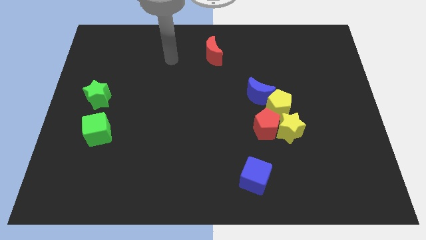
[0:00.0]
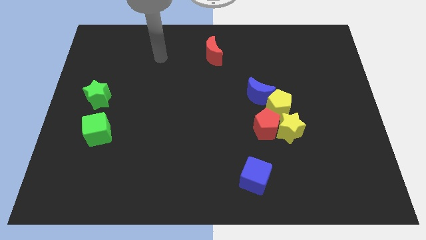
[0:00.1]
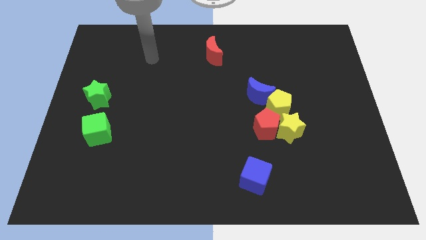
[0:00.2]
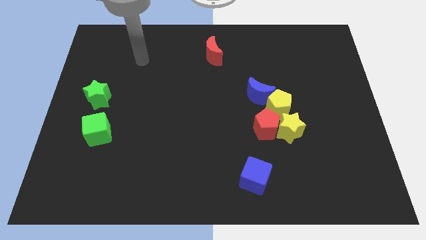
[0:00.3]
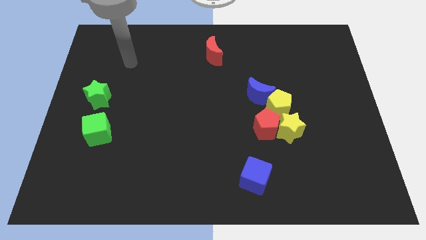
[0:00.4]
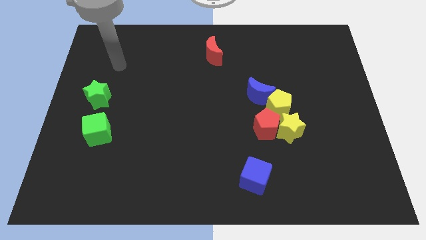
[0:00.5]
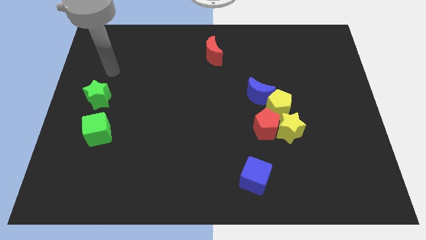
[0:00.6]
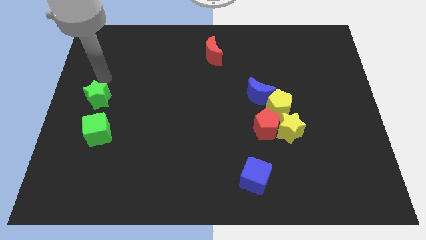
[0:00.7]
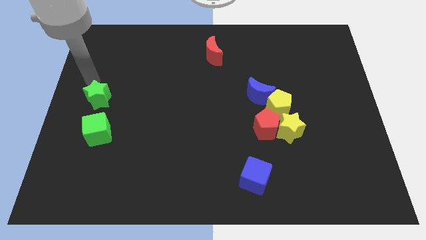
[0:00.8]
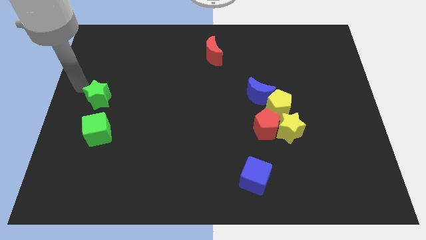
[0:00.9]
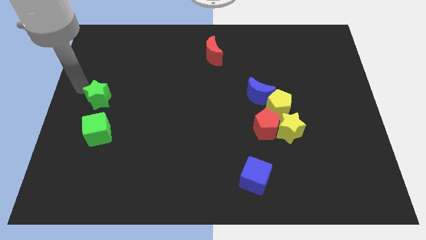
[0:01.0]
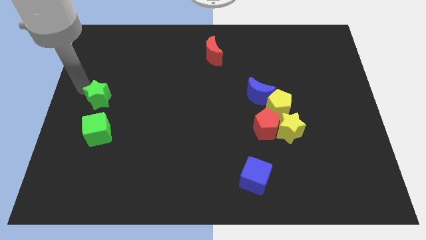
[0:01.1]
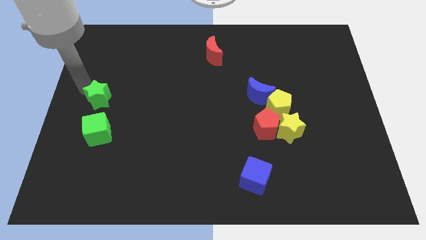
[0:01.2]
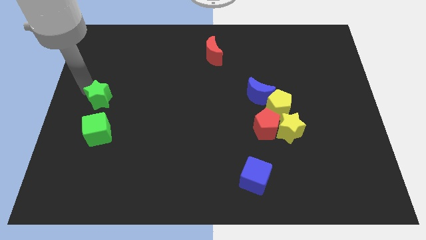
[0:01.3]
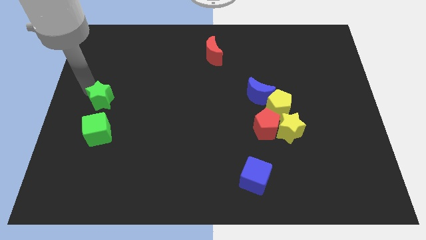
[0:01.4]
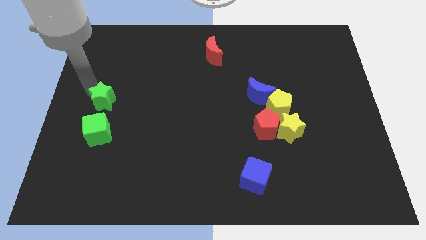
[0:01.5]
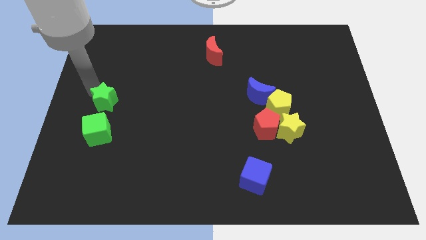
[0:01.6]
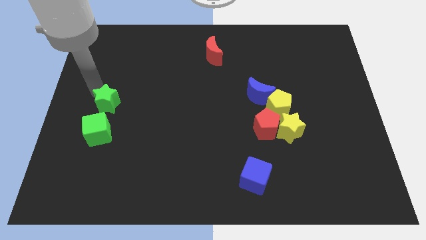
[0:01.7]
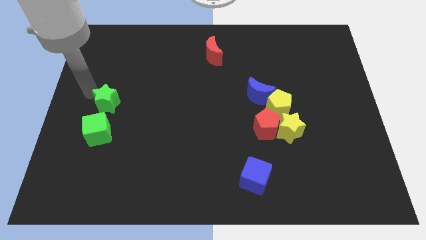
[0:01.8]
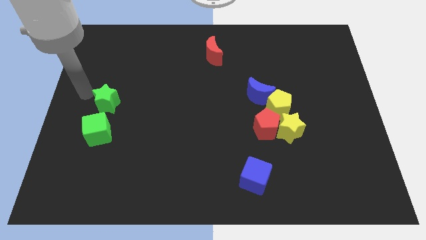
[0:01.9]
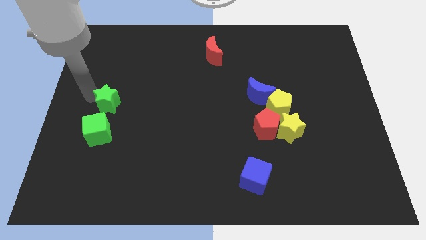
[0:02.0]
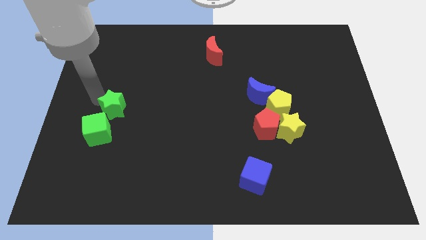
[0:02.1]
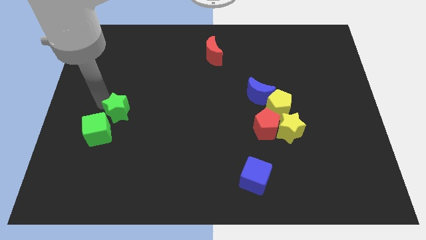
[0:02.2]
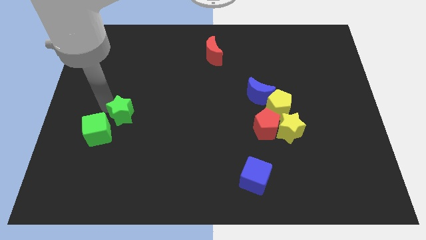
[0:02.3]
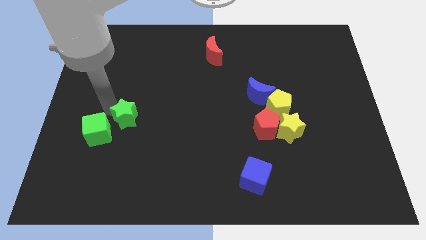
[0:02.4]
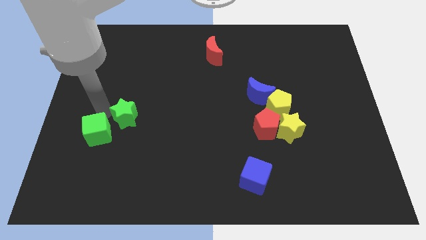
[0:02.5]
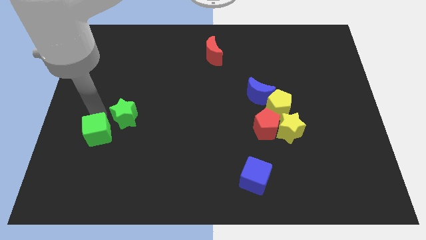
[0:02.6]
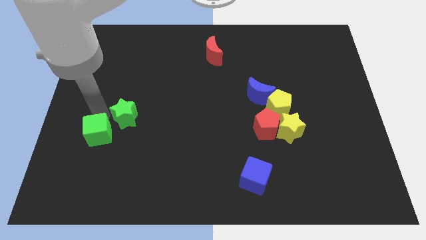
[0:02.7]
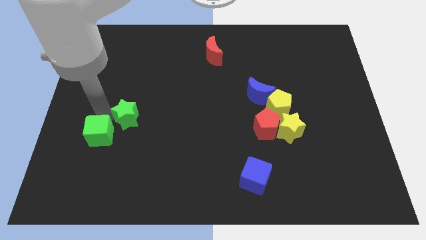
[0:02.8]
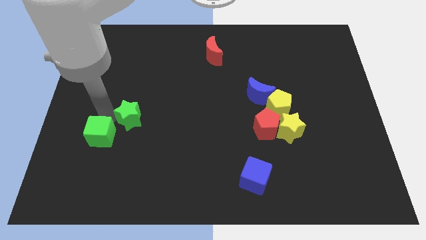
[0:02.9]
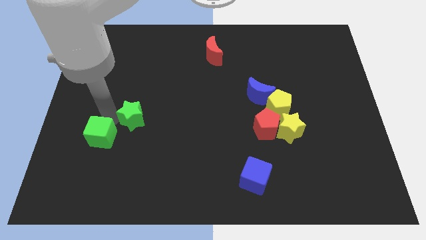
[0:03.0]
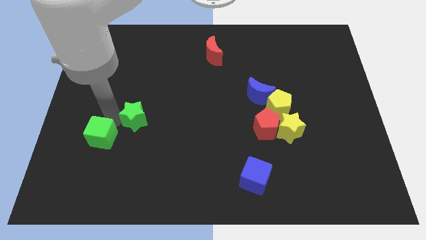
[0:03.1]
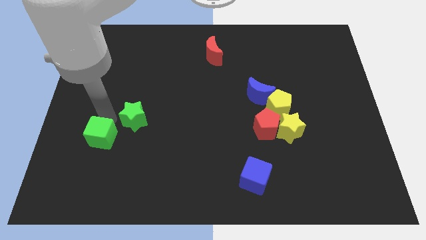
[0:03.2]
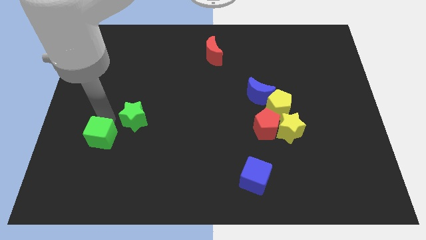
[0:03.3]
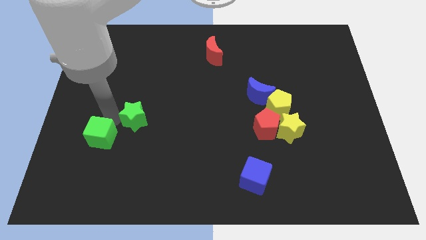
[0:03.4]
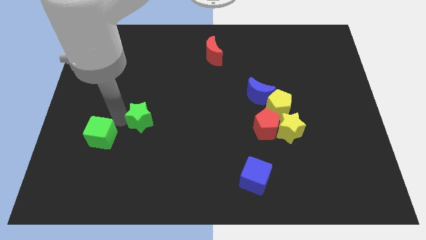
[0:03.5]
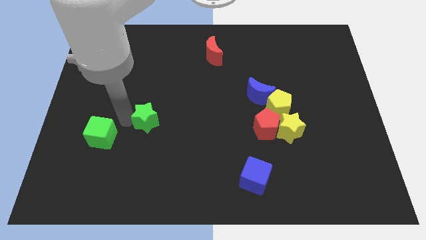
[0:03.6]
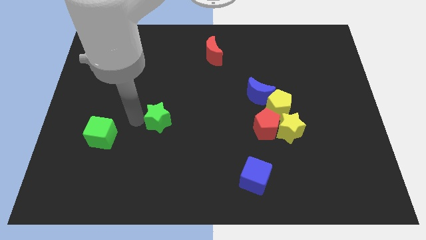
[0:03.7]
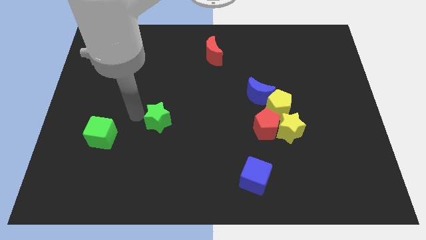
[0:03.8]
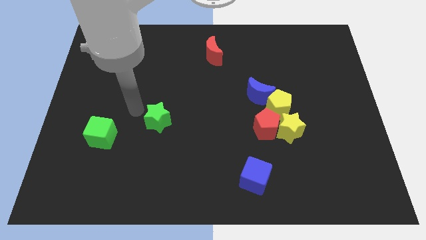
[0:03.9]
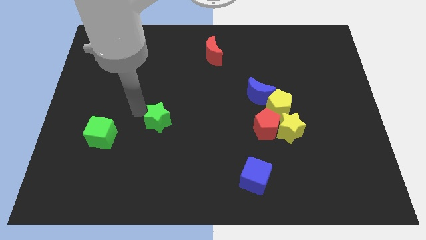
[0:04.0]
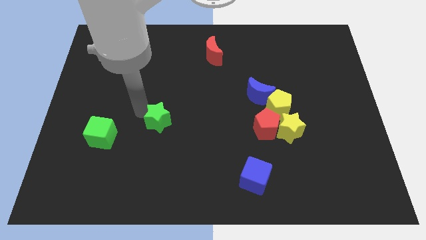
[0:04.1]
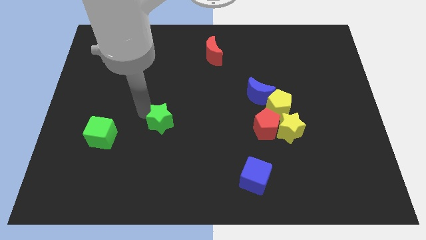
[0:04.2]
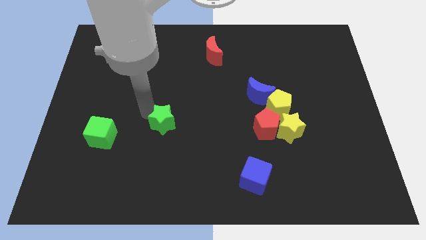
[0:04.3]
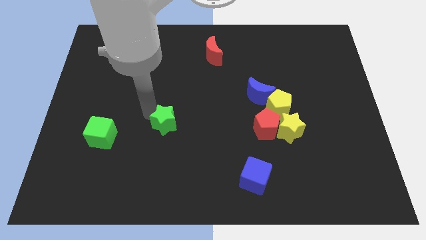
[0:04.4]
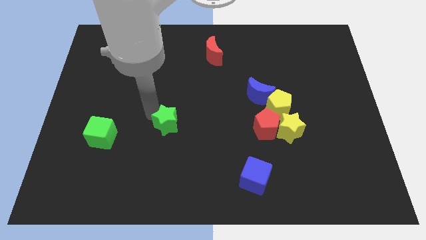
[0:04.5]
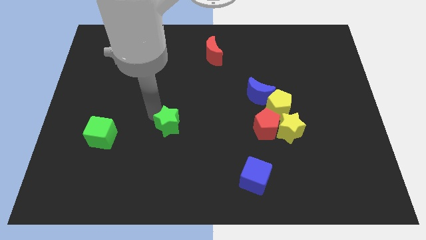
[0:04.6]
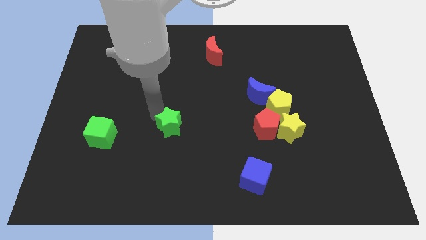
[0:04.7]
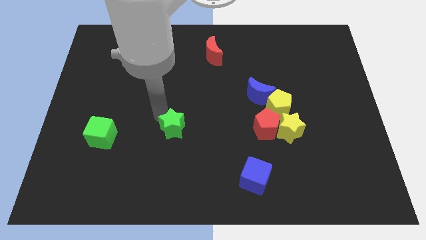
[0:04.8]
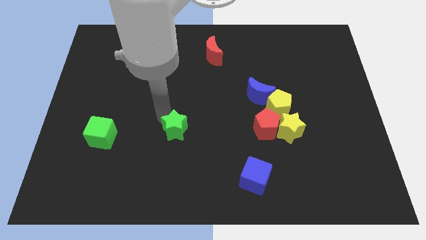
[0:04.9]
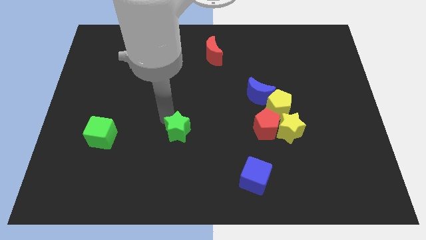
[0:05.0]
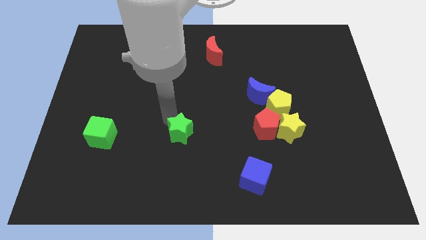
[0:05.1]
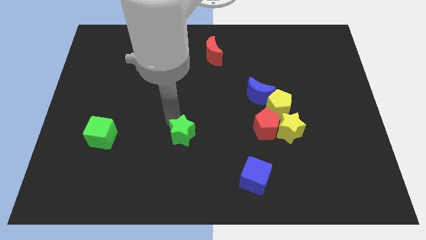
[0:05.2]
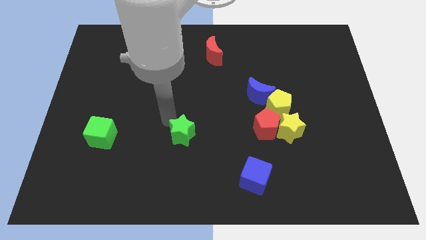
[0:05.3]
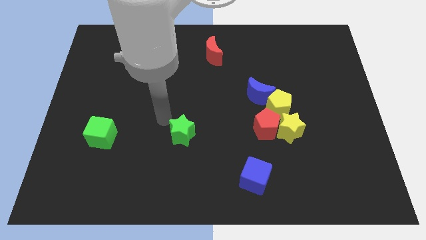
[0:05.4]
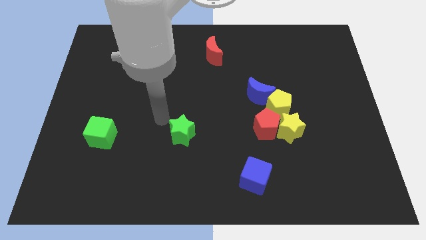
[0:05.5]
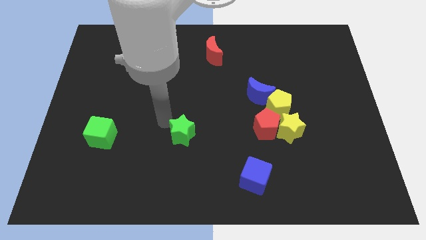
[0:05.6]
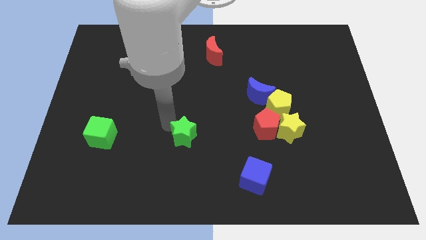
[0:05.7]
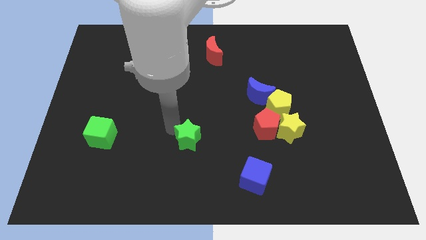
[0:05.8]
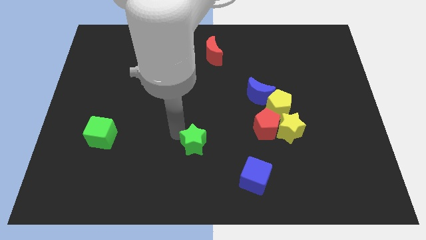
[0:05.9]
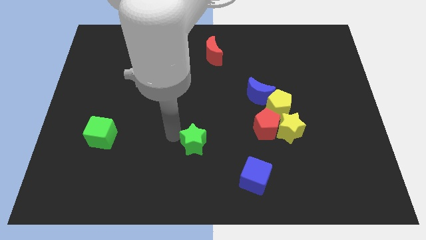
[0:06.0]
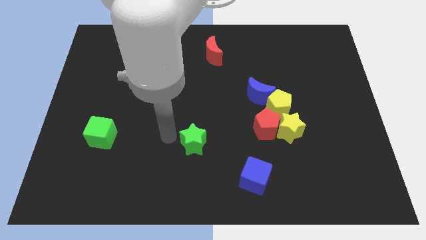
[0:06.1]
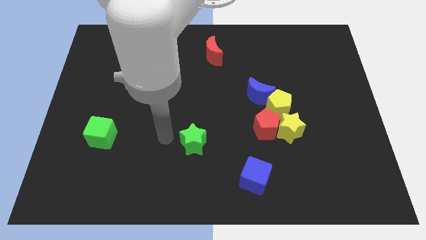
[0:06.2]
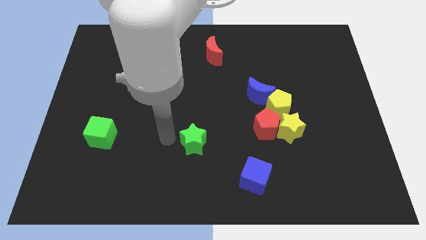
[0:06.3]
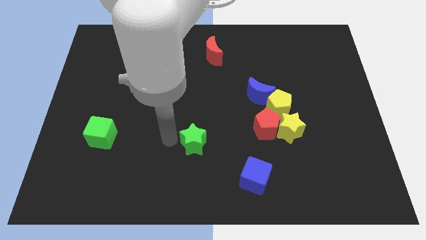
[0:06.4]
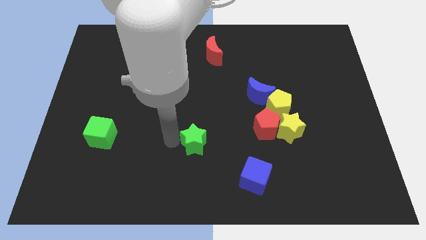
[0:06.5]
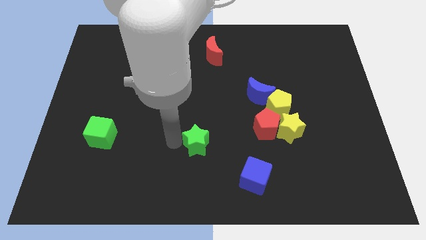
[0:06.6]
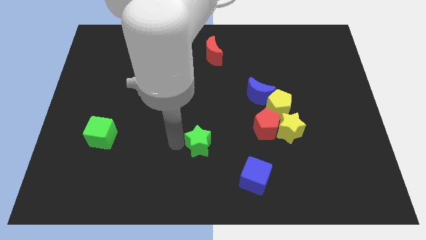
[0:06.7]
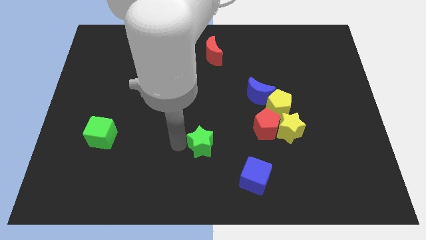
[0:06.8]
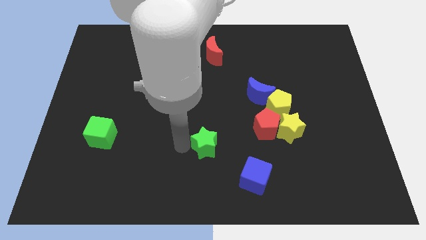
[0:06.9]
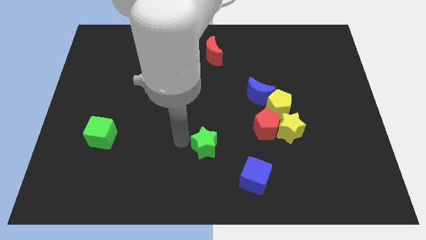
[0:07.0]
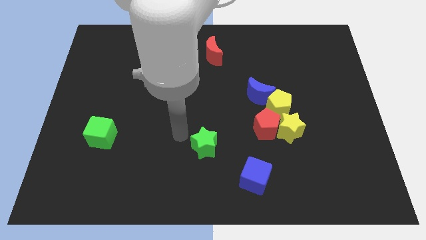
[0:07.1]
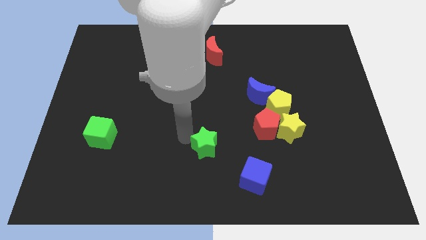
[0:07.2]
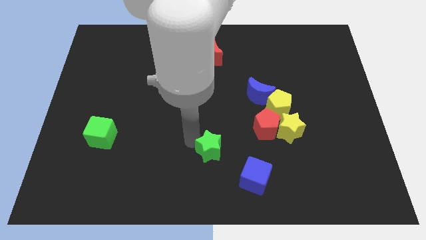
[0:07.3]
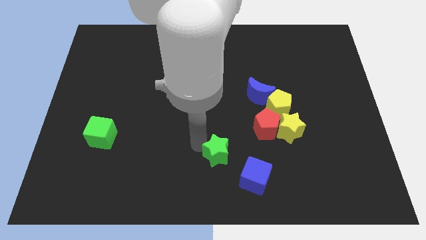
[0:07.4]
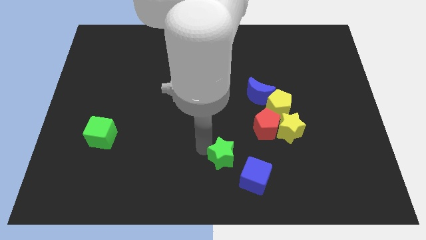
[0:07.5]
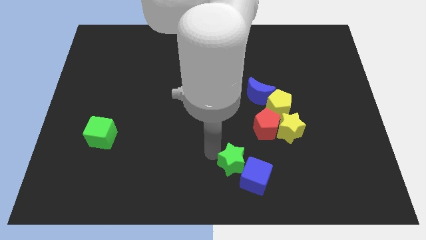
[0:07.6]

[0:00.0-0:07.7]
put the green star to the blue cube
